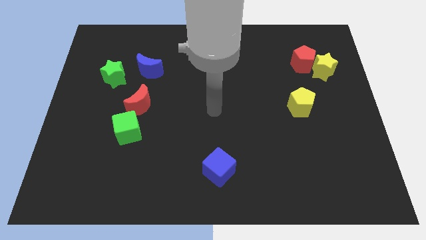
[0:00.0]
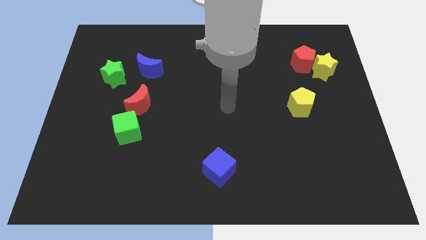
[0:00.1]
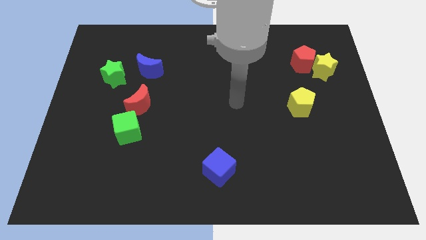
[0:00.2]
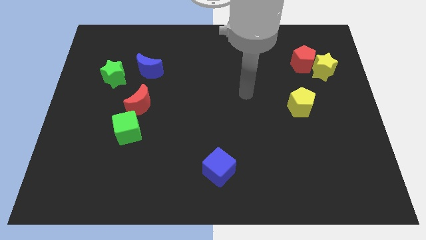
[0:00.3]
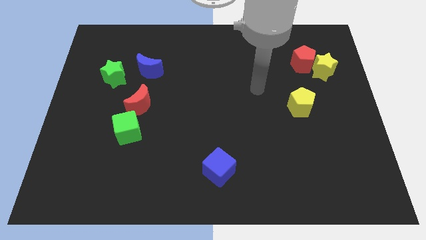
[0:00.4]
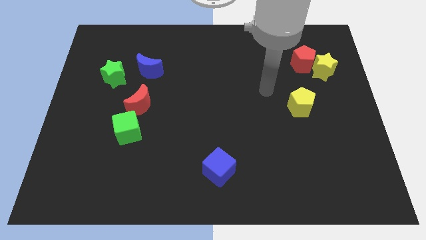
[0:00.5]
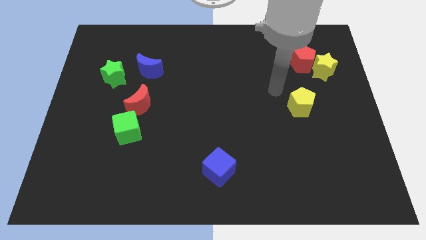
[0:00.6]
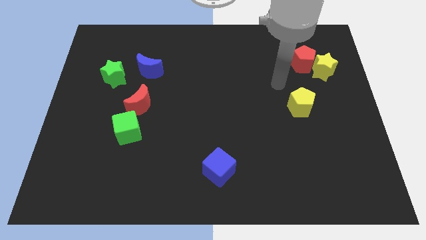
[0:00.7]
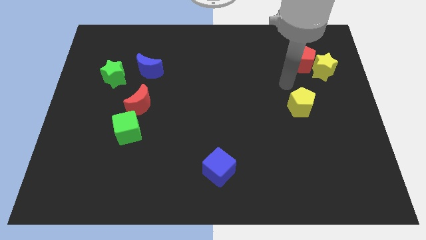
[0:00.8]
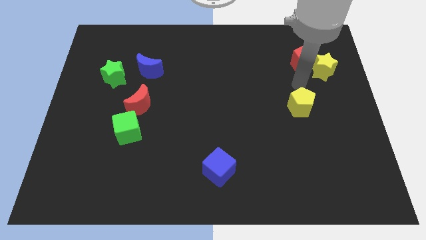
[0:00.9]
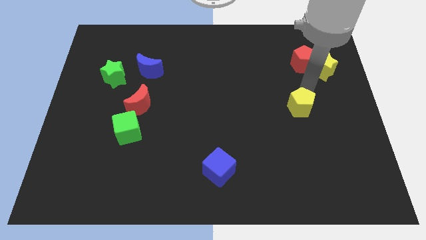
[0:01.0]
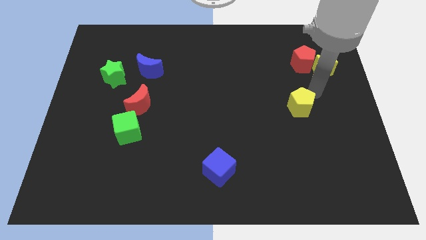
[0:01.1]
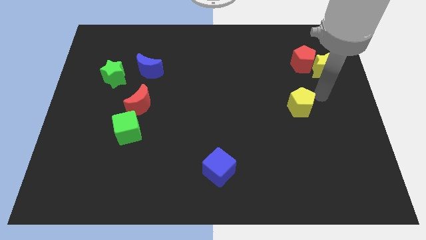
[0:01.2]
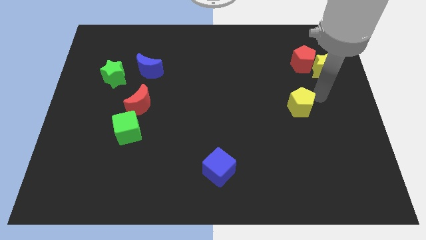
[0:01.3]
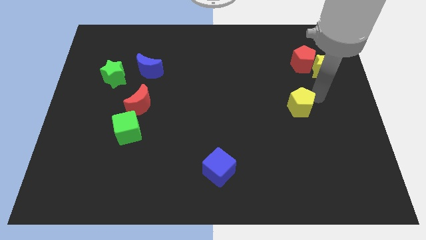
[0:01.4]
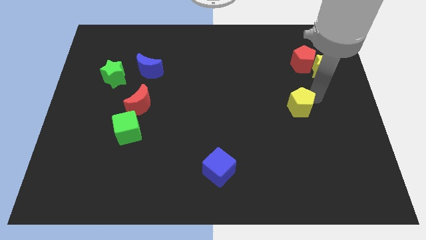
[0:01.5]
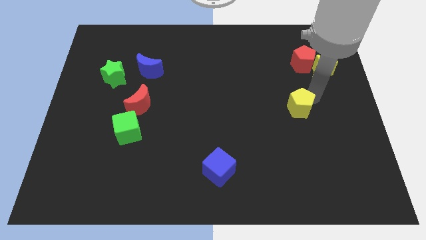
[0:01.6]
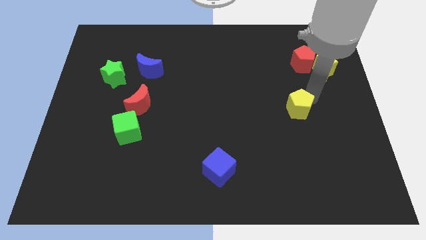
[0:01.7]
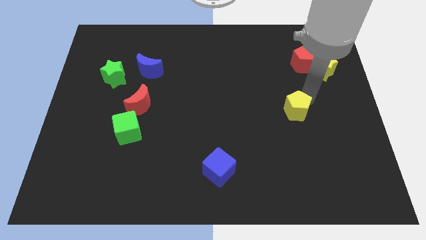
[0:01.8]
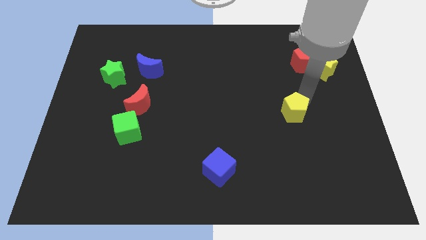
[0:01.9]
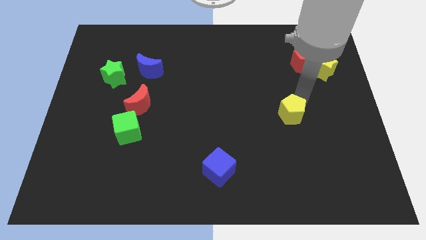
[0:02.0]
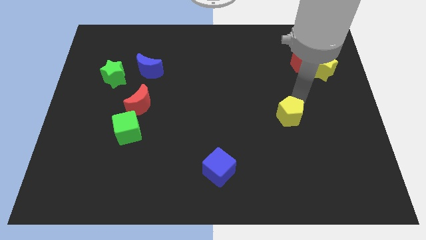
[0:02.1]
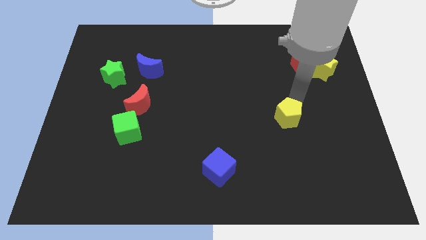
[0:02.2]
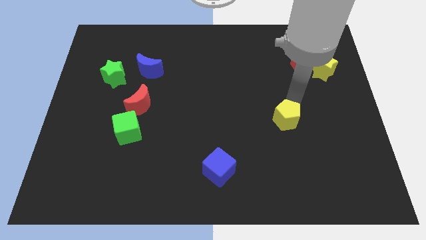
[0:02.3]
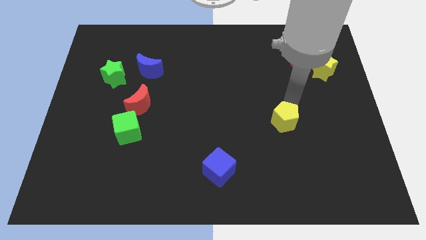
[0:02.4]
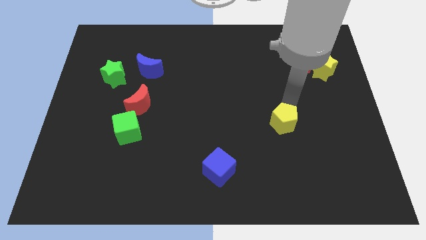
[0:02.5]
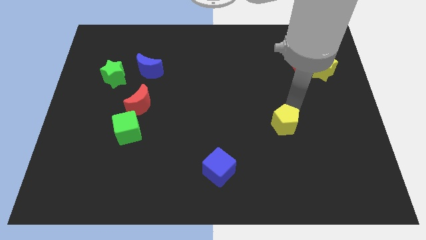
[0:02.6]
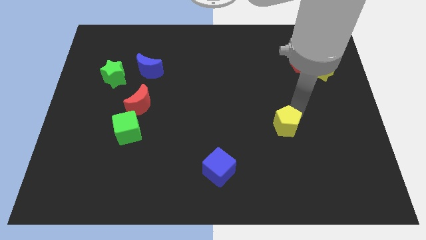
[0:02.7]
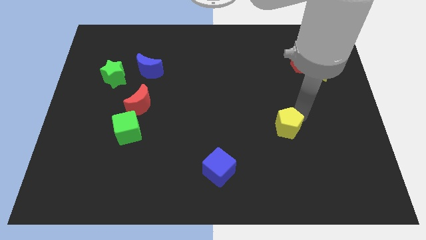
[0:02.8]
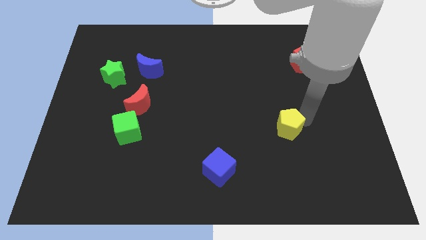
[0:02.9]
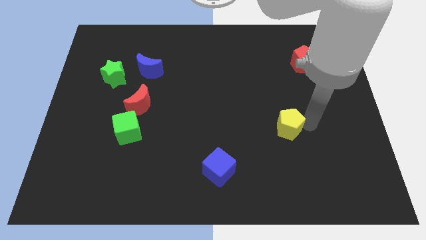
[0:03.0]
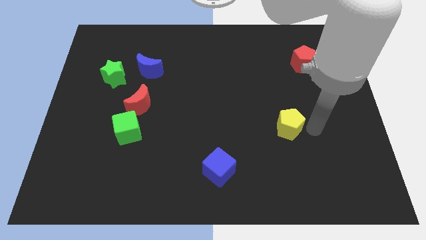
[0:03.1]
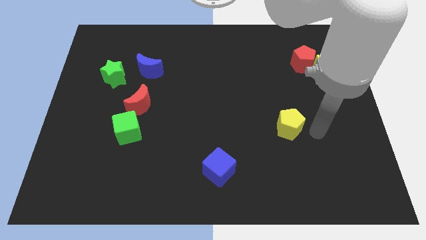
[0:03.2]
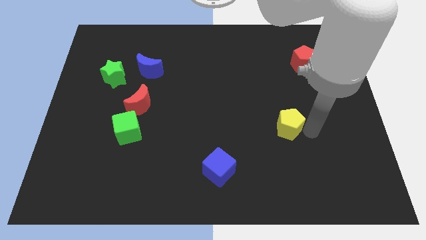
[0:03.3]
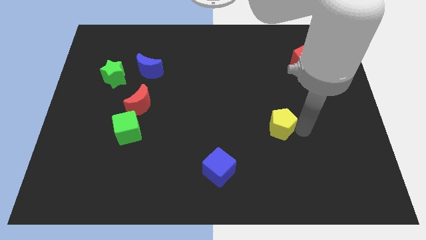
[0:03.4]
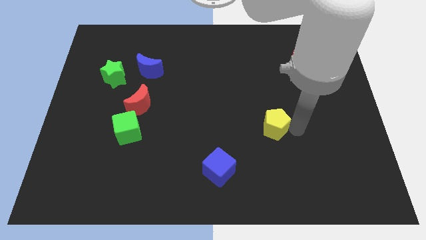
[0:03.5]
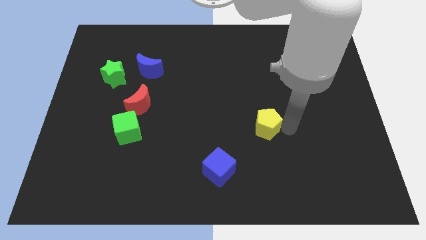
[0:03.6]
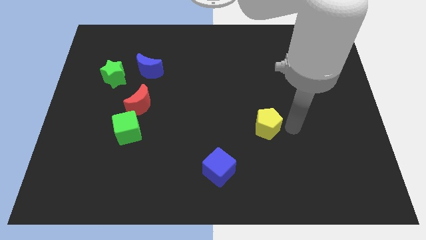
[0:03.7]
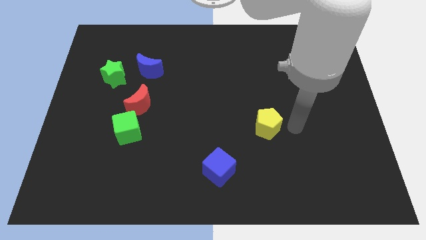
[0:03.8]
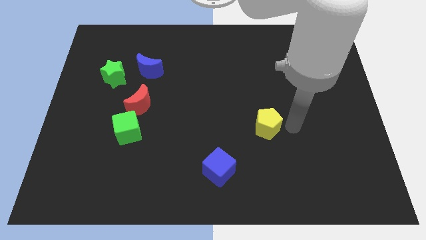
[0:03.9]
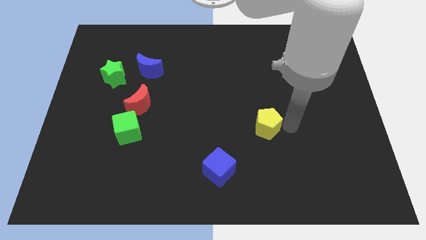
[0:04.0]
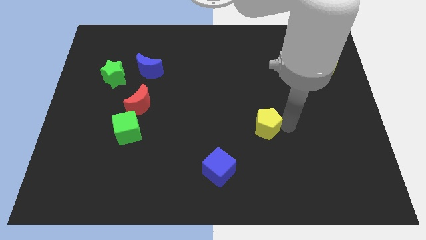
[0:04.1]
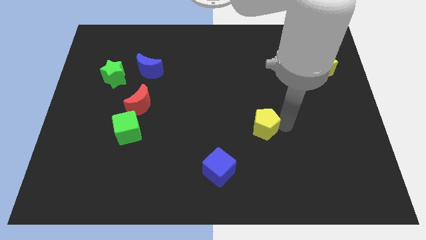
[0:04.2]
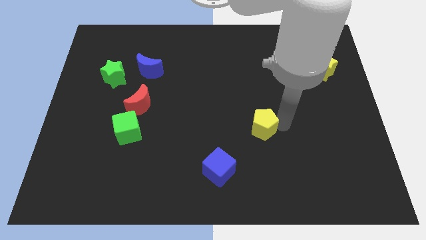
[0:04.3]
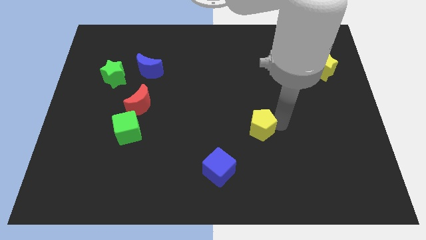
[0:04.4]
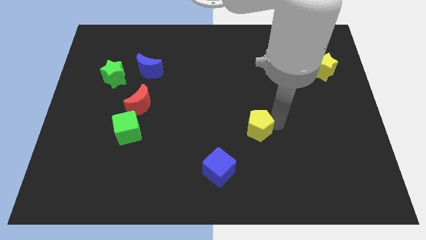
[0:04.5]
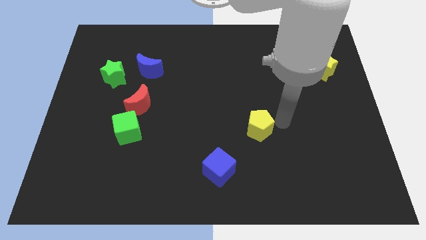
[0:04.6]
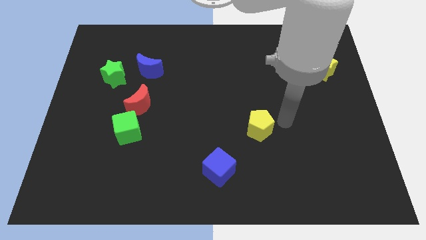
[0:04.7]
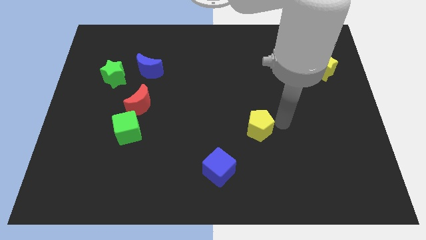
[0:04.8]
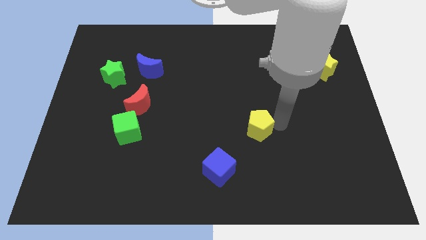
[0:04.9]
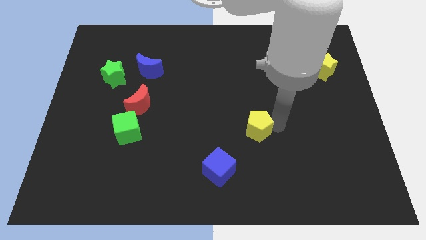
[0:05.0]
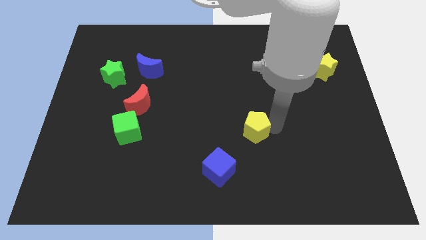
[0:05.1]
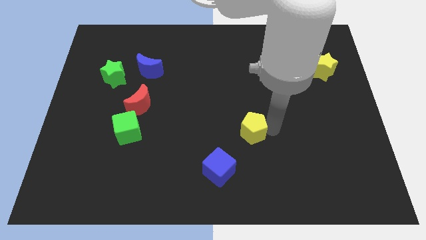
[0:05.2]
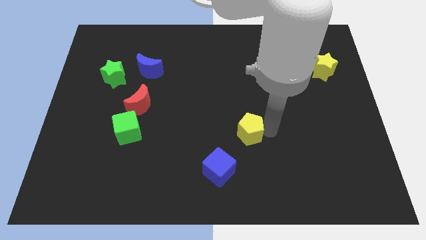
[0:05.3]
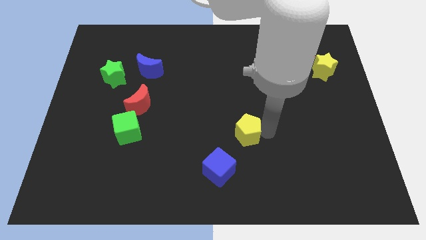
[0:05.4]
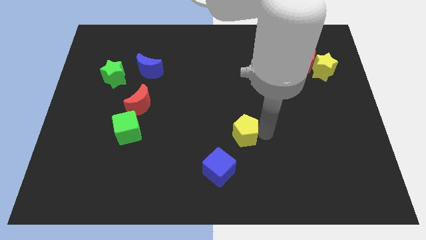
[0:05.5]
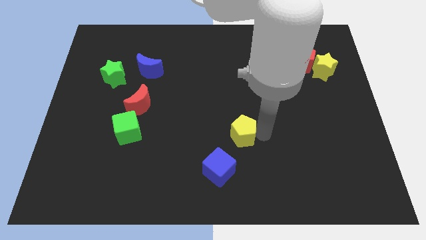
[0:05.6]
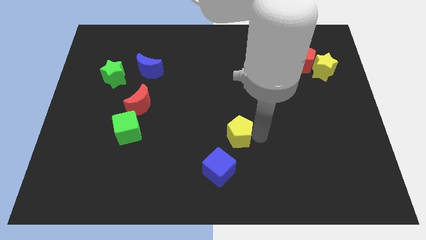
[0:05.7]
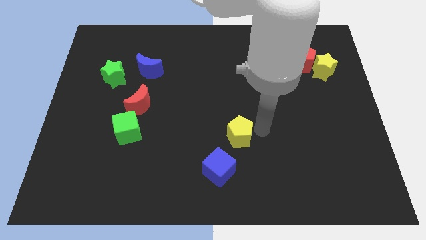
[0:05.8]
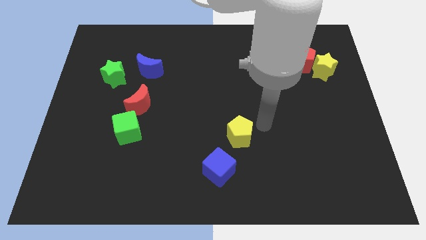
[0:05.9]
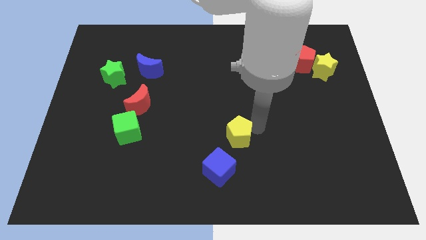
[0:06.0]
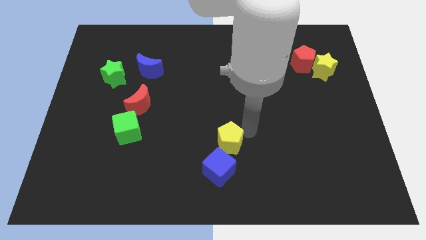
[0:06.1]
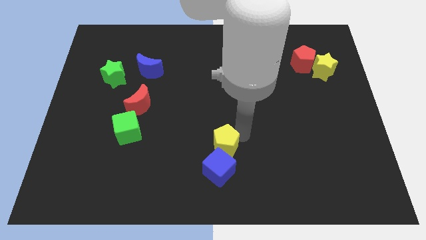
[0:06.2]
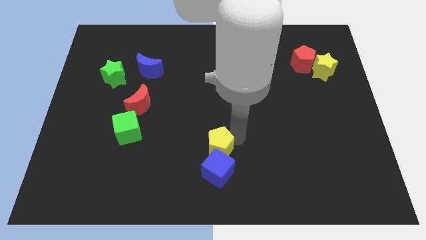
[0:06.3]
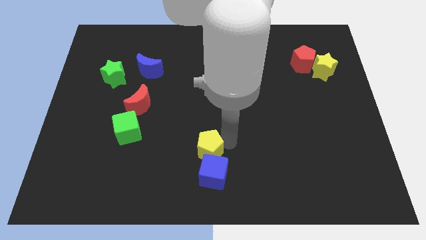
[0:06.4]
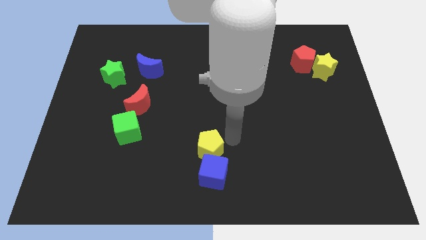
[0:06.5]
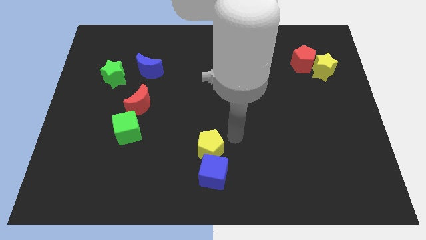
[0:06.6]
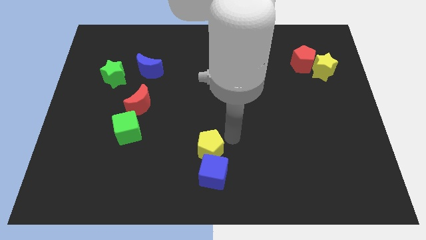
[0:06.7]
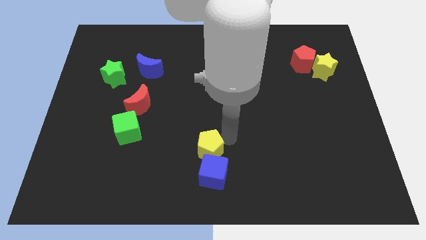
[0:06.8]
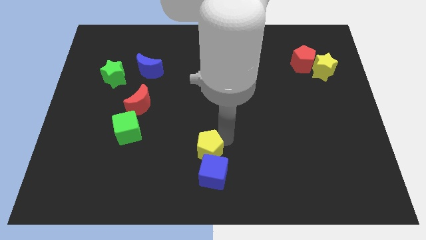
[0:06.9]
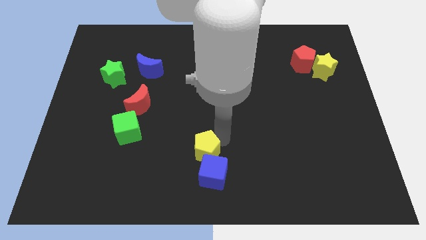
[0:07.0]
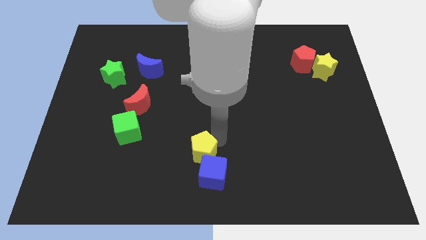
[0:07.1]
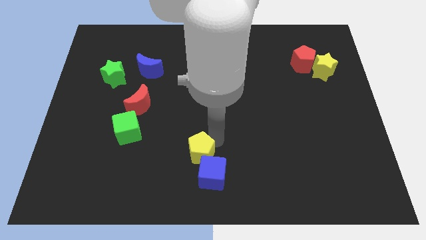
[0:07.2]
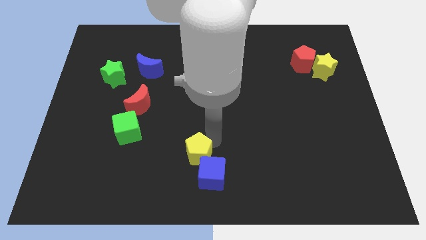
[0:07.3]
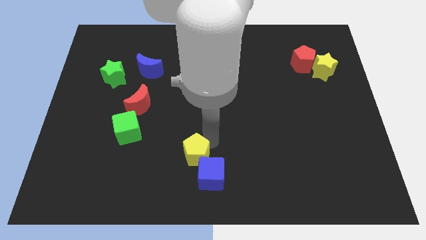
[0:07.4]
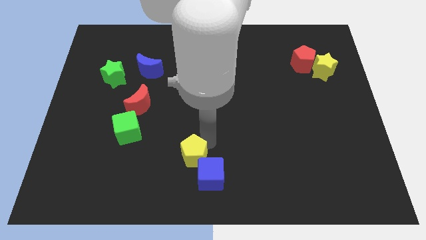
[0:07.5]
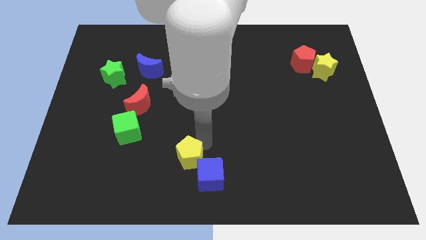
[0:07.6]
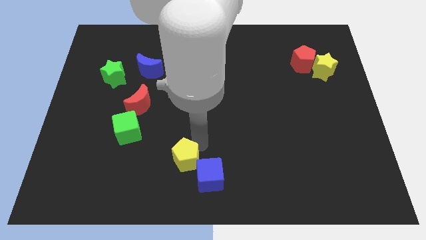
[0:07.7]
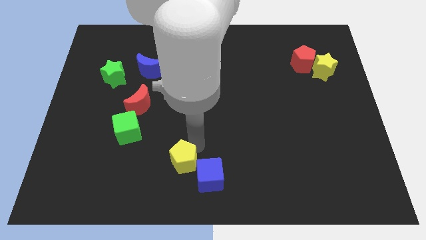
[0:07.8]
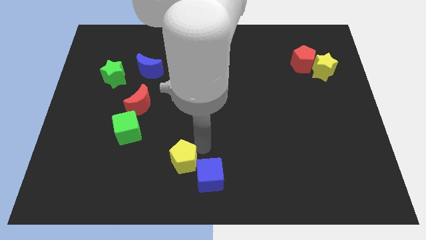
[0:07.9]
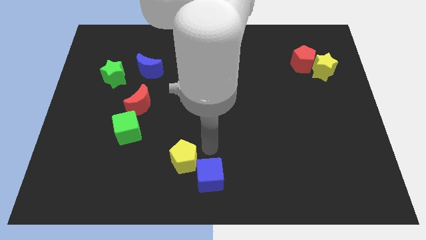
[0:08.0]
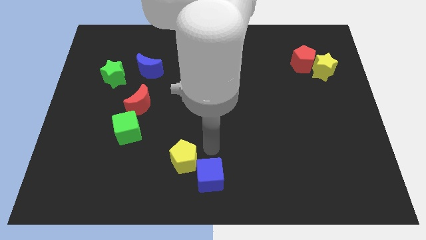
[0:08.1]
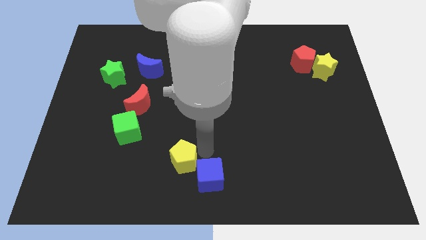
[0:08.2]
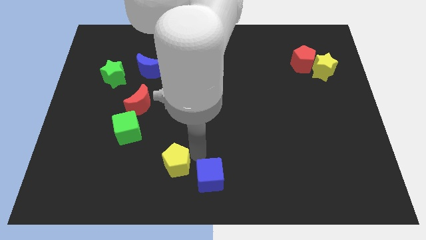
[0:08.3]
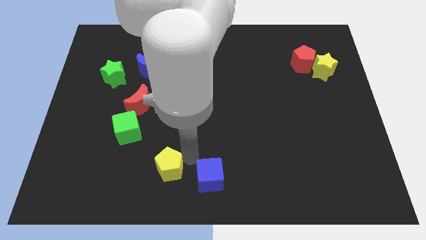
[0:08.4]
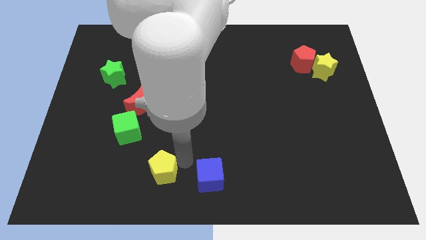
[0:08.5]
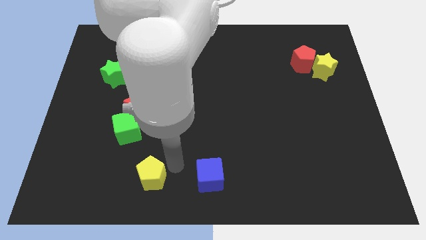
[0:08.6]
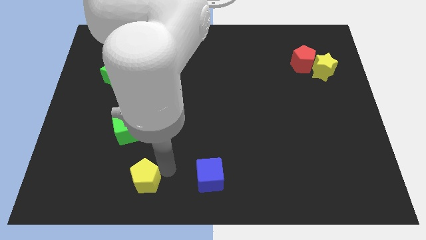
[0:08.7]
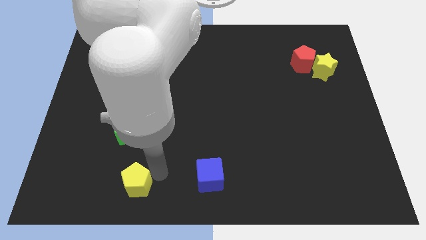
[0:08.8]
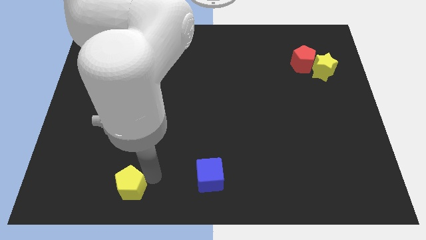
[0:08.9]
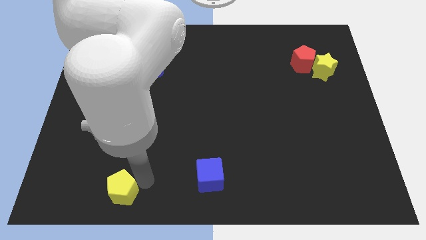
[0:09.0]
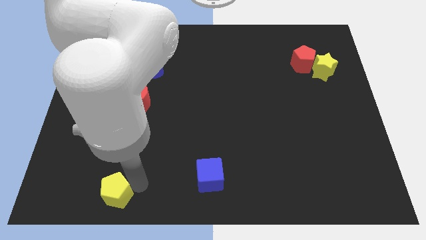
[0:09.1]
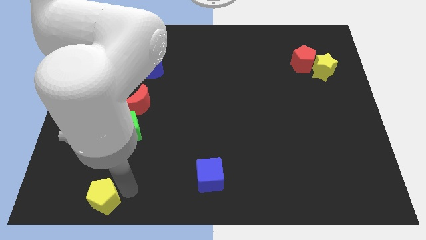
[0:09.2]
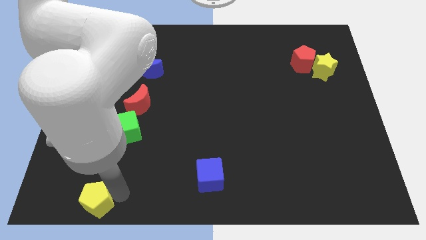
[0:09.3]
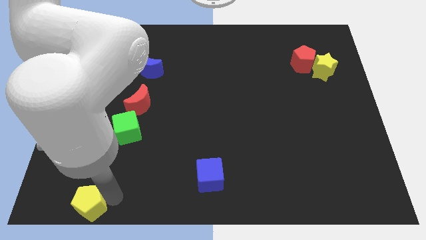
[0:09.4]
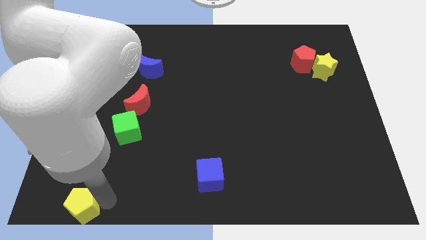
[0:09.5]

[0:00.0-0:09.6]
put the yellow pentagon to the bottom left
